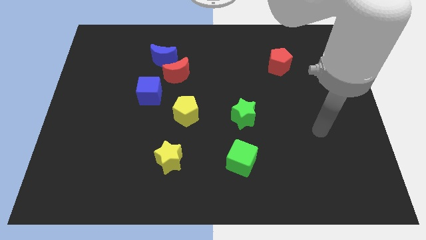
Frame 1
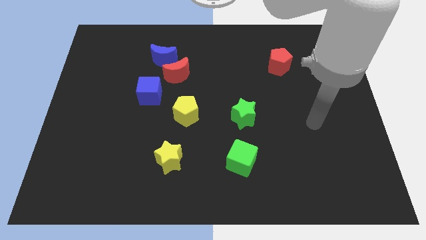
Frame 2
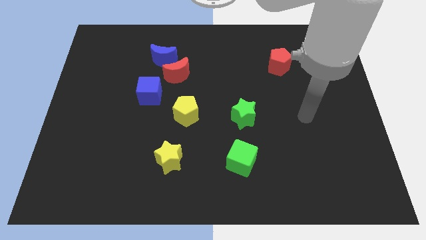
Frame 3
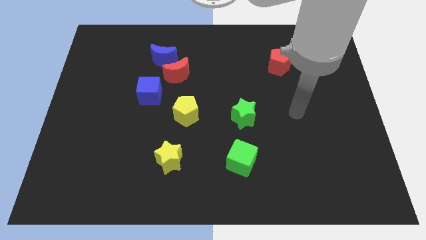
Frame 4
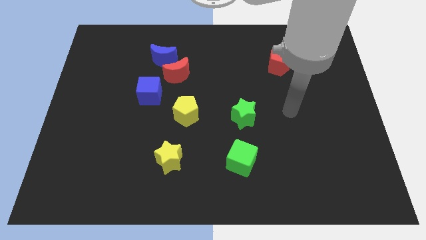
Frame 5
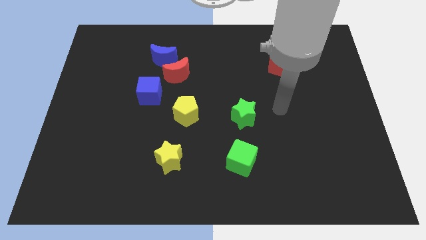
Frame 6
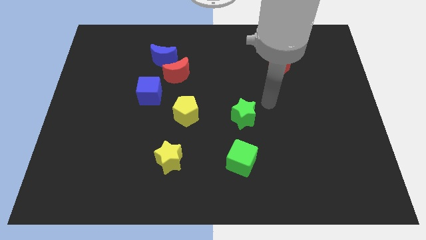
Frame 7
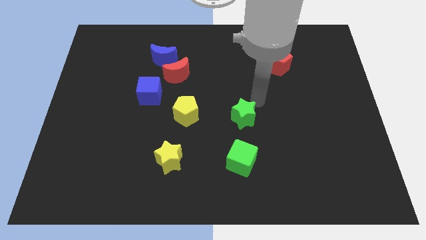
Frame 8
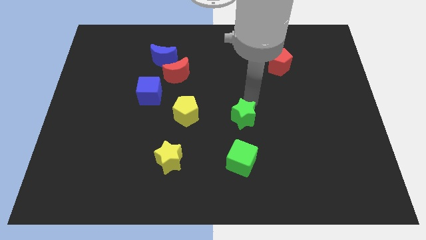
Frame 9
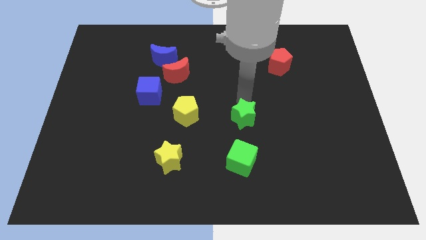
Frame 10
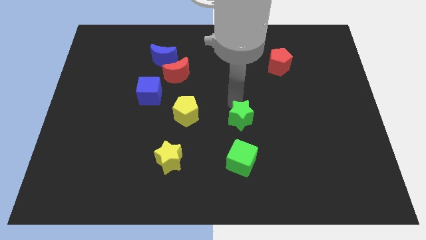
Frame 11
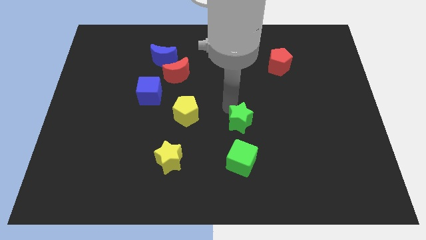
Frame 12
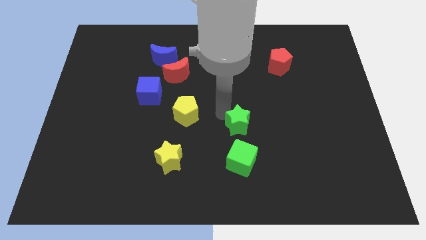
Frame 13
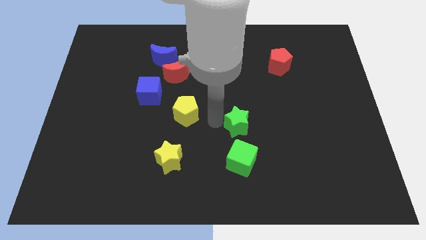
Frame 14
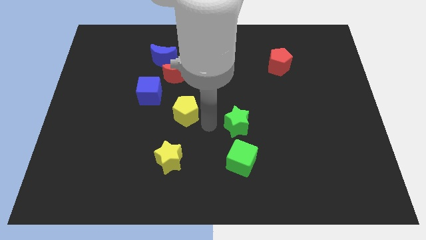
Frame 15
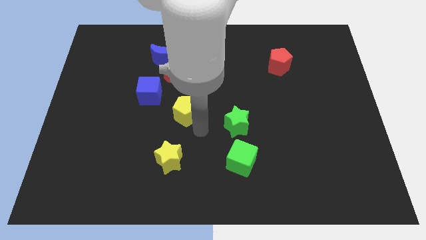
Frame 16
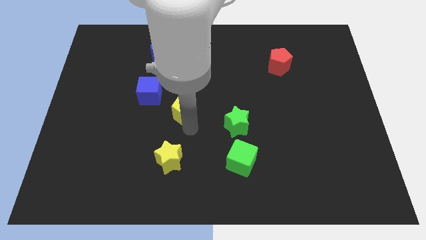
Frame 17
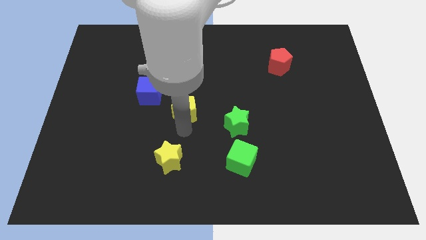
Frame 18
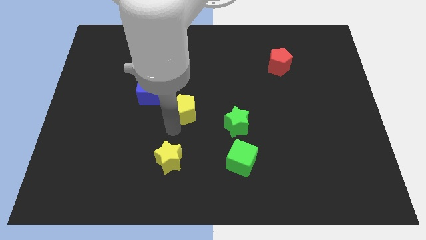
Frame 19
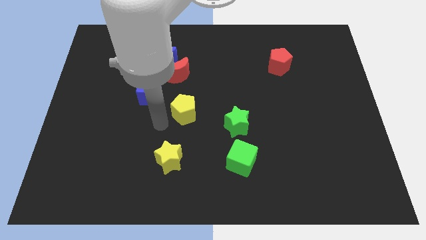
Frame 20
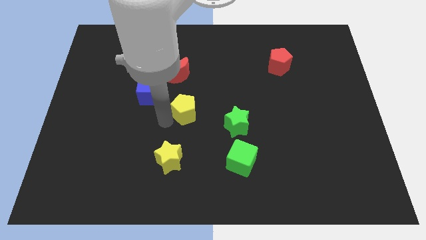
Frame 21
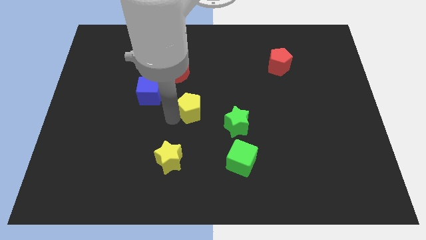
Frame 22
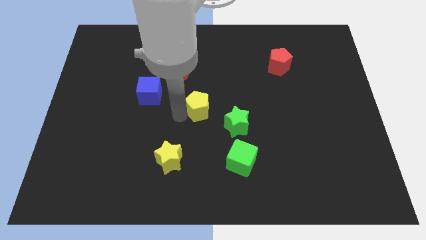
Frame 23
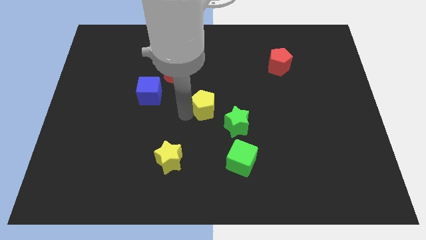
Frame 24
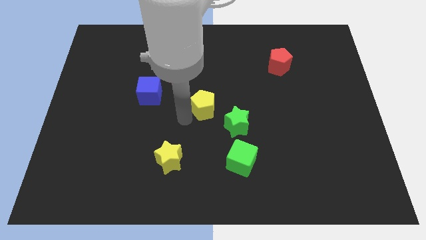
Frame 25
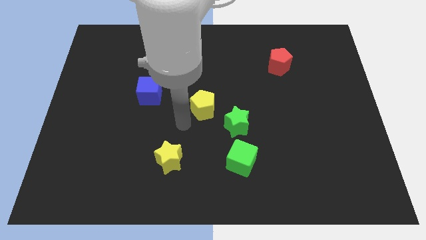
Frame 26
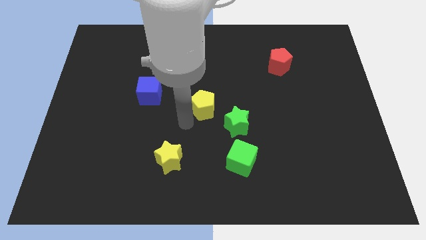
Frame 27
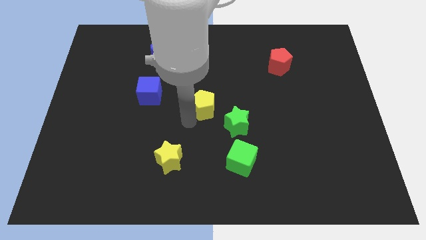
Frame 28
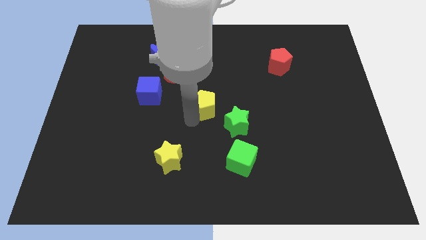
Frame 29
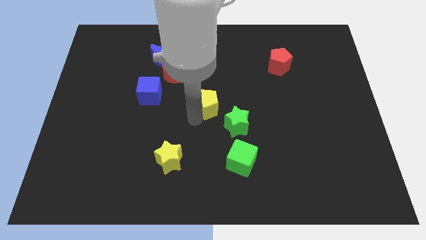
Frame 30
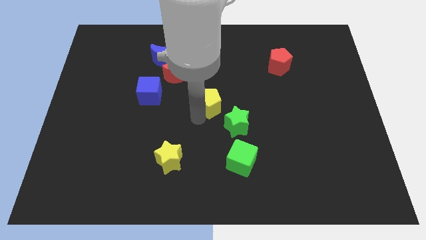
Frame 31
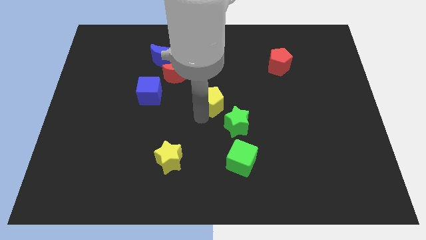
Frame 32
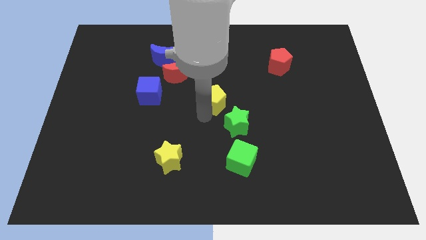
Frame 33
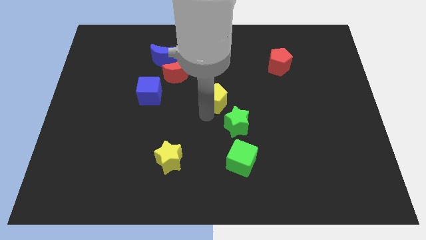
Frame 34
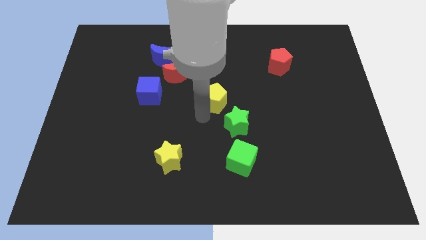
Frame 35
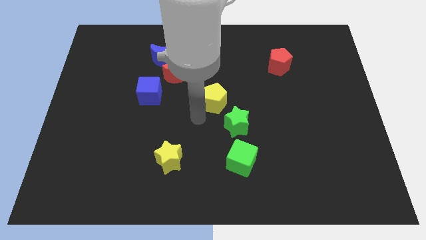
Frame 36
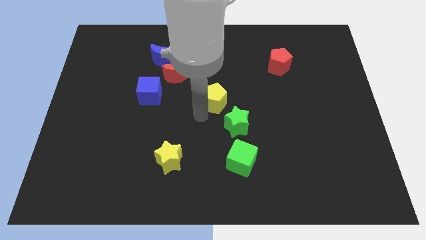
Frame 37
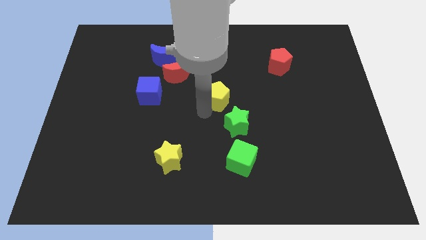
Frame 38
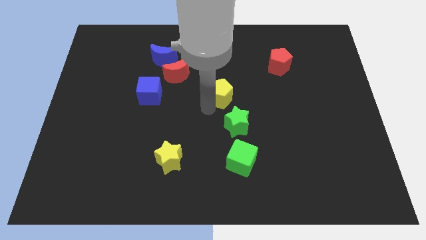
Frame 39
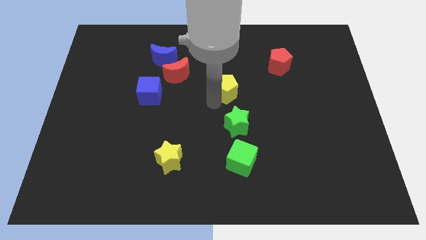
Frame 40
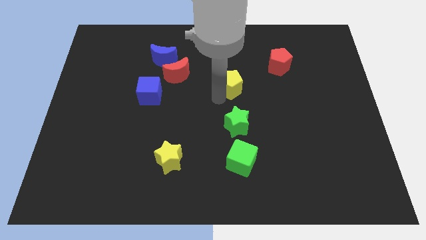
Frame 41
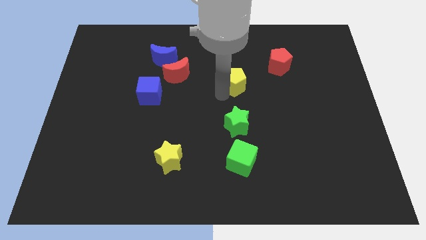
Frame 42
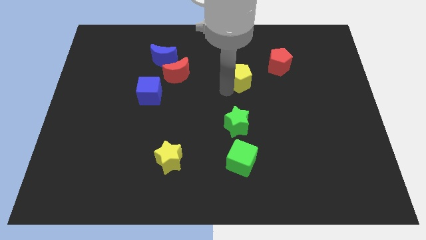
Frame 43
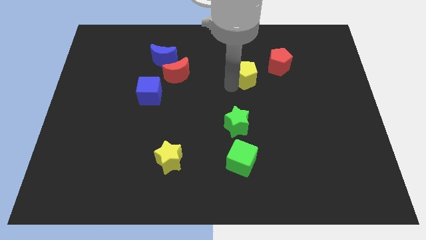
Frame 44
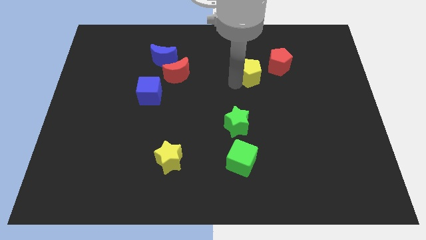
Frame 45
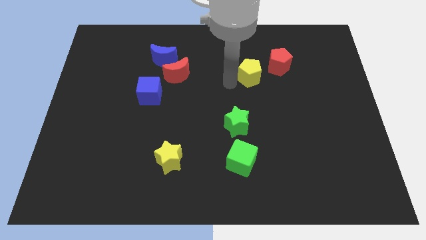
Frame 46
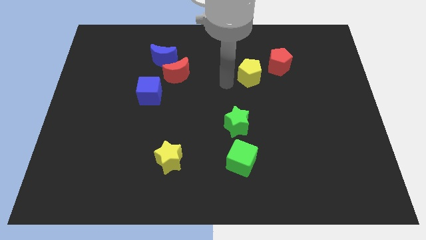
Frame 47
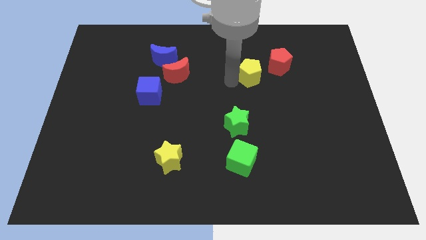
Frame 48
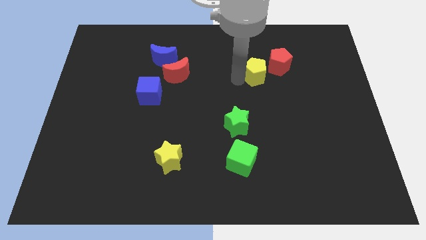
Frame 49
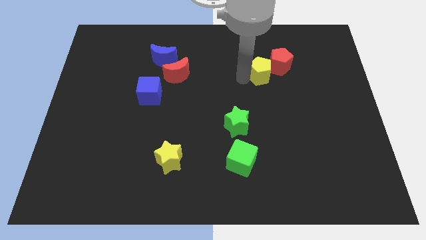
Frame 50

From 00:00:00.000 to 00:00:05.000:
move the yellow pentagon towards the red pentagon

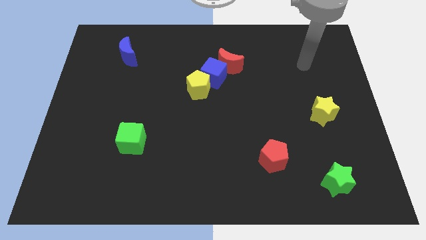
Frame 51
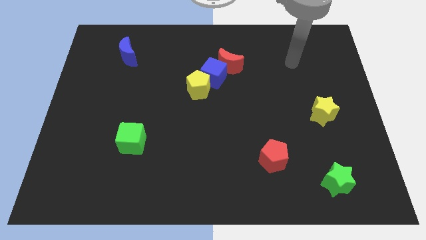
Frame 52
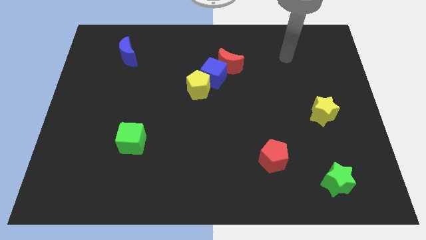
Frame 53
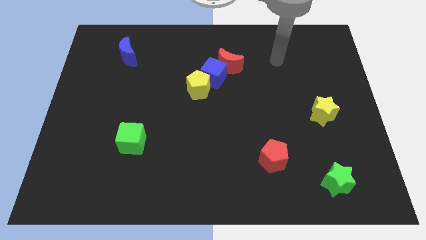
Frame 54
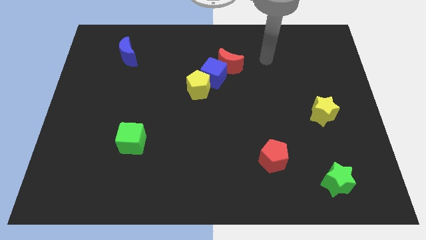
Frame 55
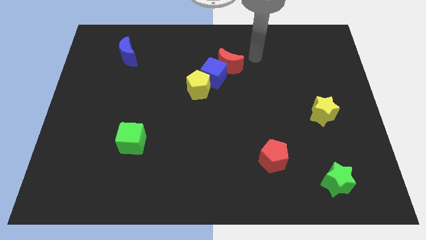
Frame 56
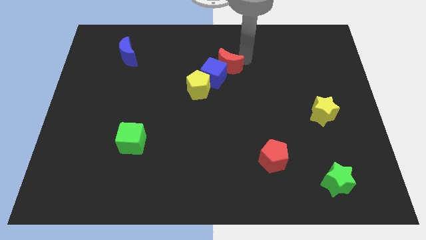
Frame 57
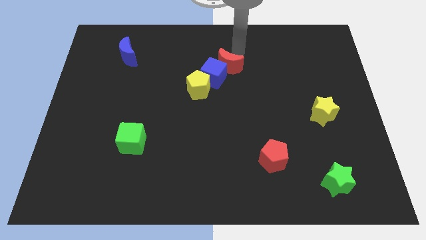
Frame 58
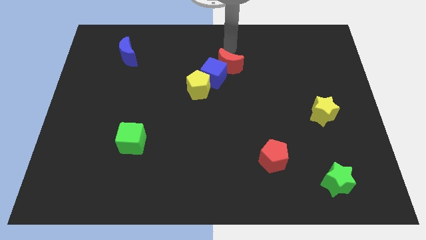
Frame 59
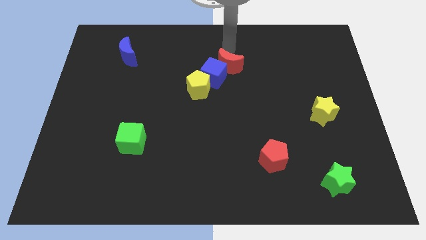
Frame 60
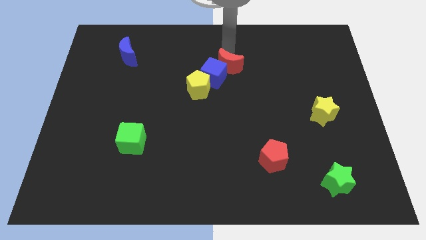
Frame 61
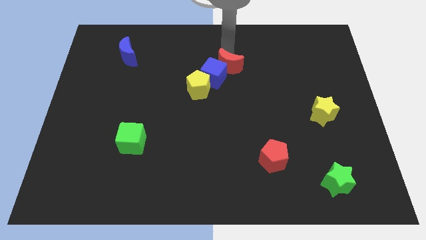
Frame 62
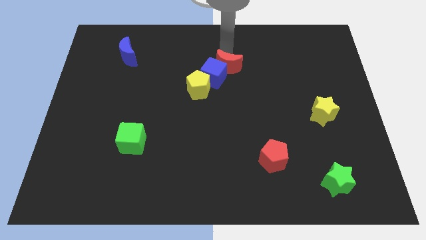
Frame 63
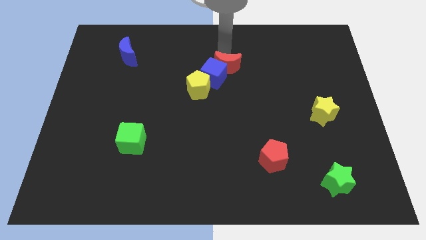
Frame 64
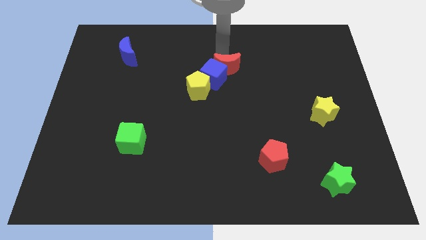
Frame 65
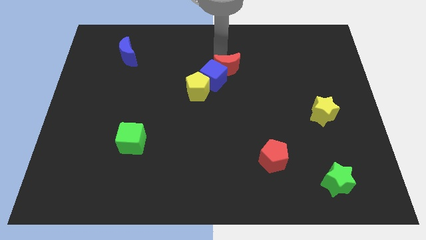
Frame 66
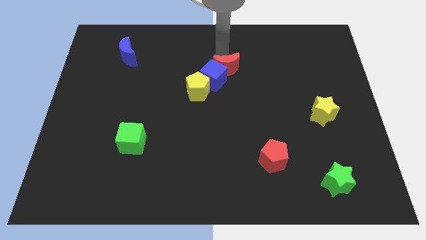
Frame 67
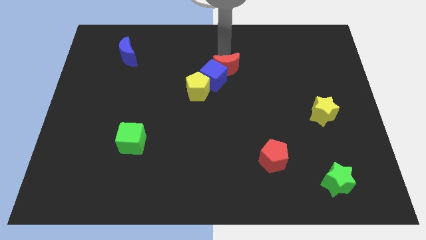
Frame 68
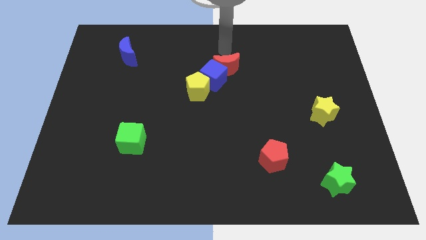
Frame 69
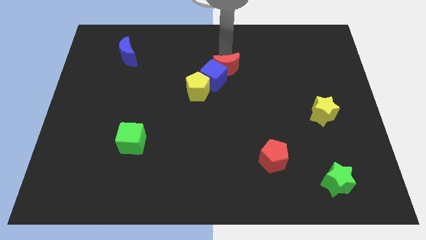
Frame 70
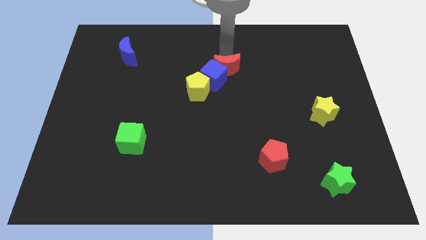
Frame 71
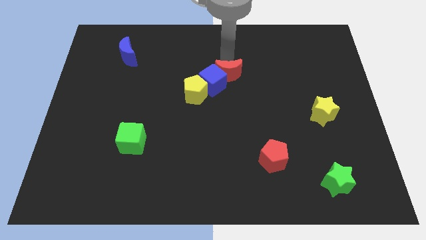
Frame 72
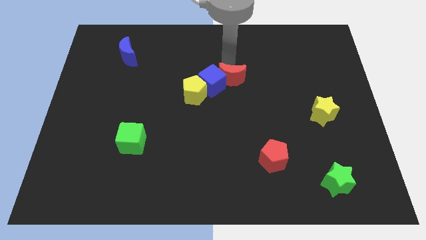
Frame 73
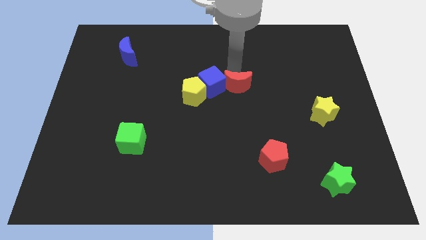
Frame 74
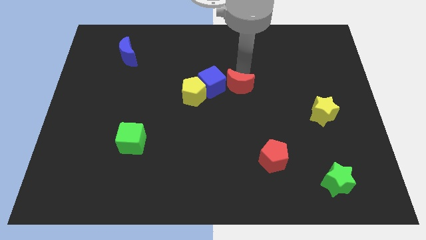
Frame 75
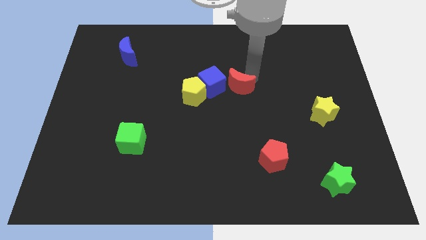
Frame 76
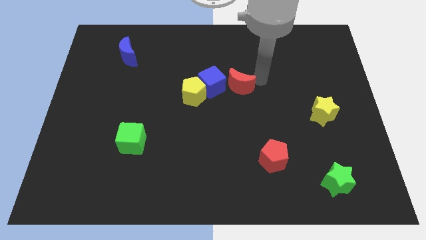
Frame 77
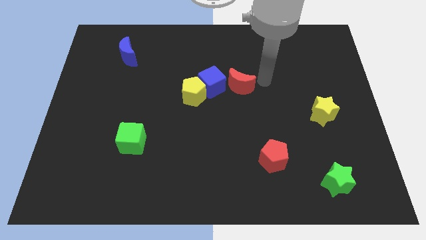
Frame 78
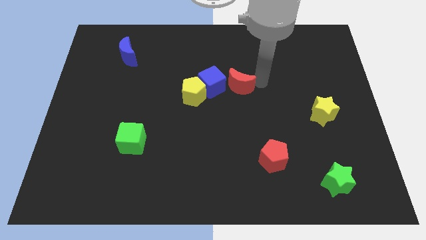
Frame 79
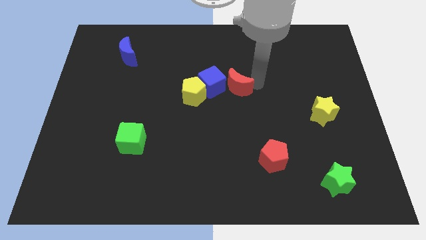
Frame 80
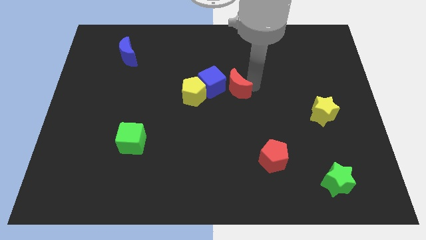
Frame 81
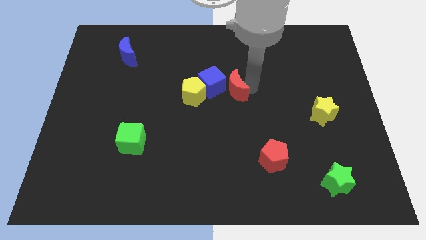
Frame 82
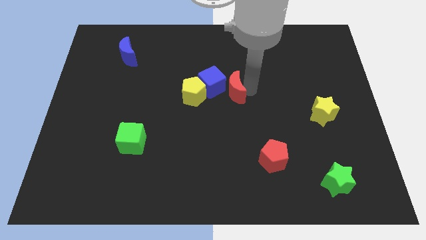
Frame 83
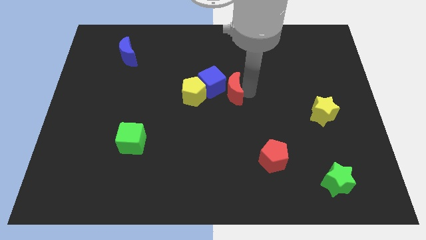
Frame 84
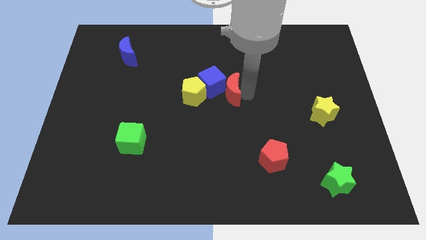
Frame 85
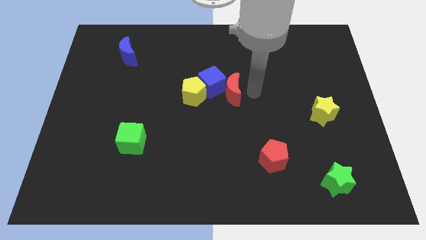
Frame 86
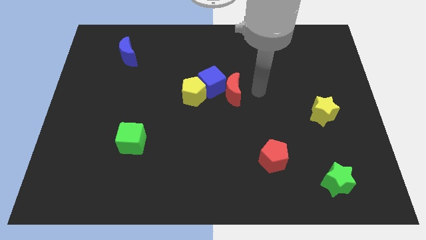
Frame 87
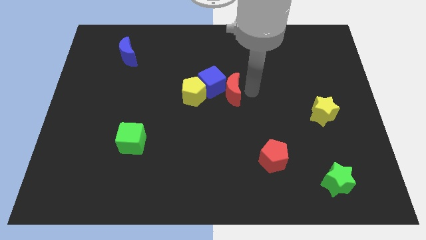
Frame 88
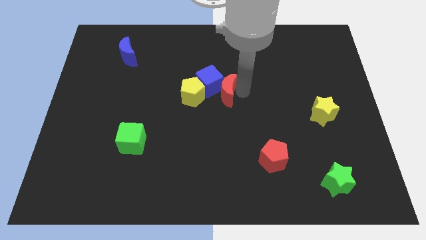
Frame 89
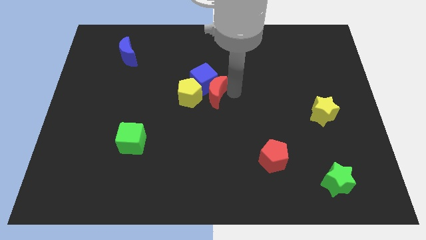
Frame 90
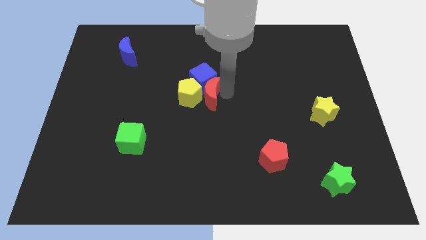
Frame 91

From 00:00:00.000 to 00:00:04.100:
slide the red moon towards the yellow pentagon
